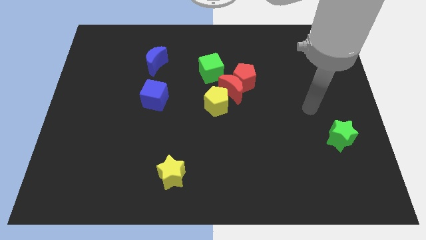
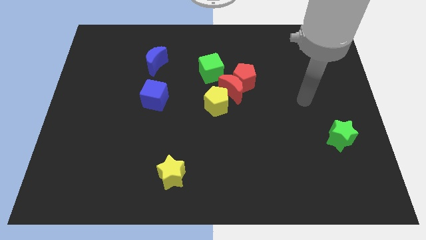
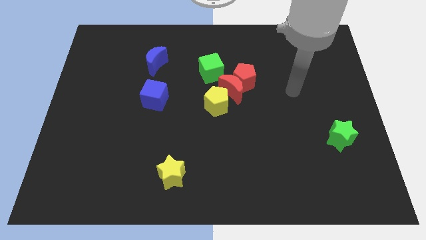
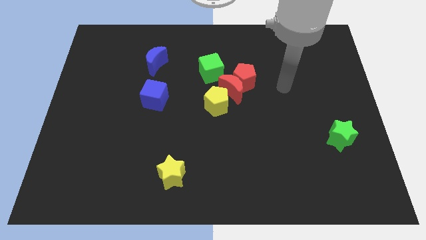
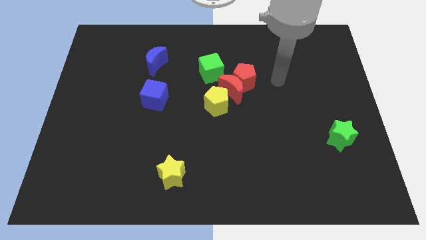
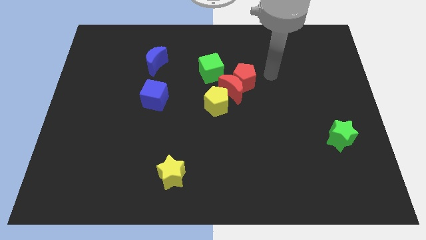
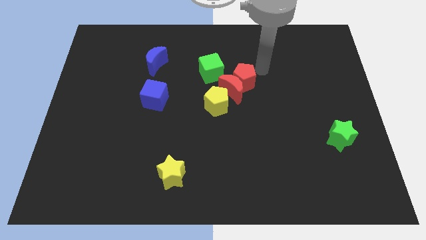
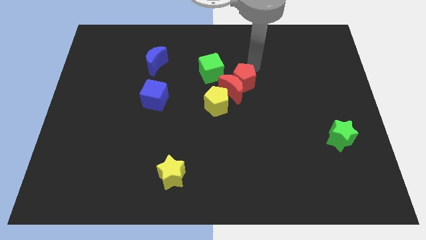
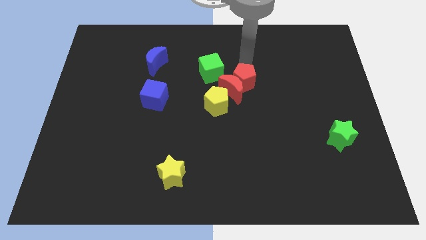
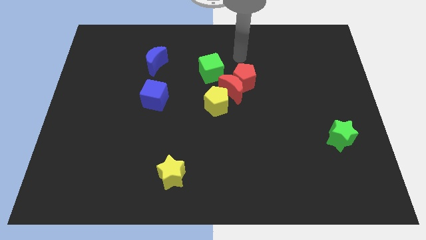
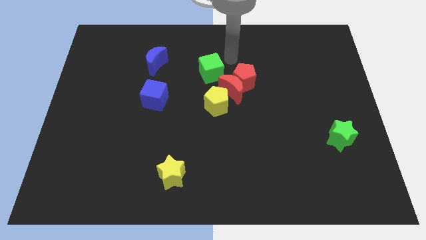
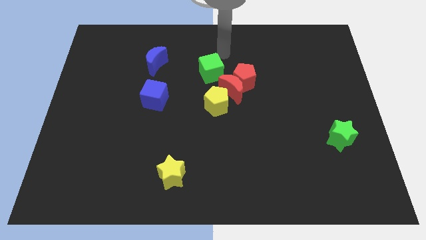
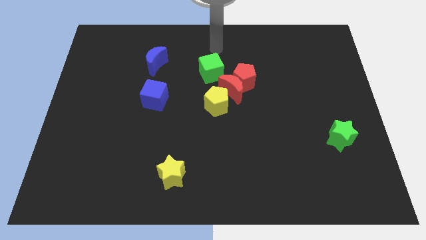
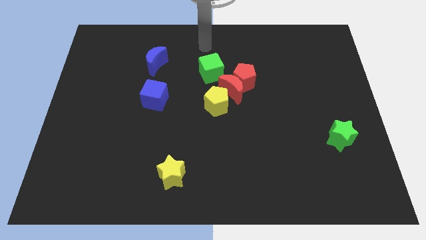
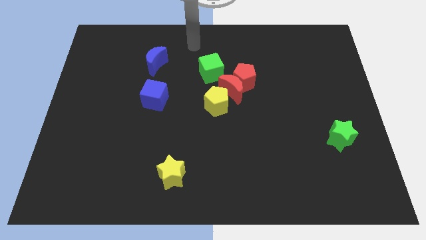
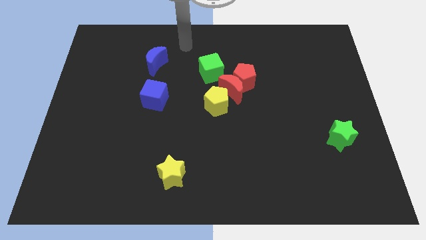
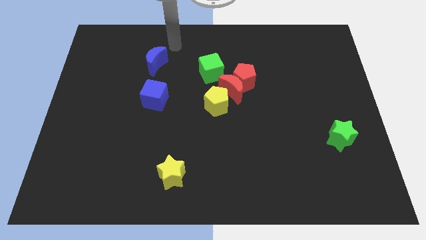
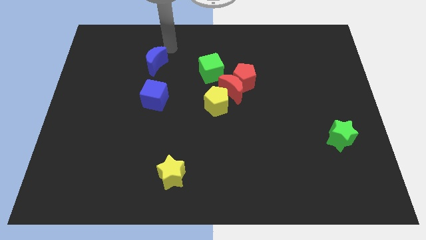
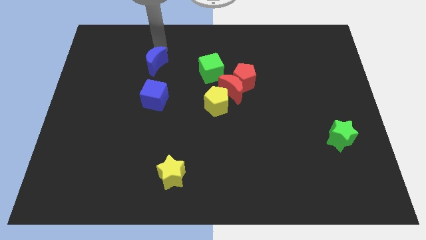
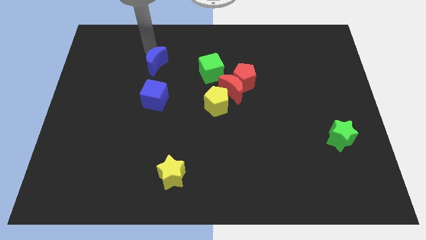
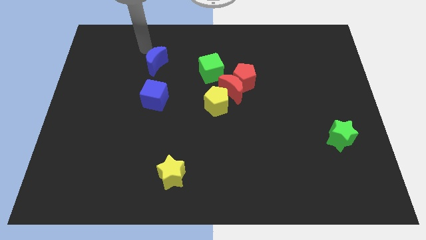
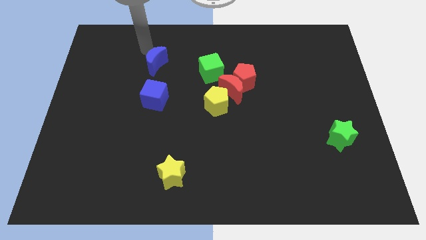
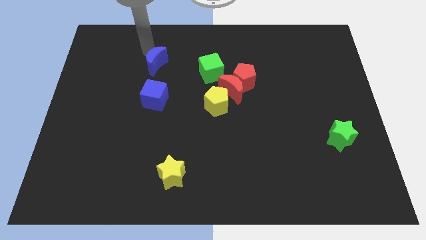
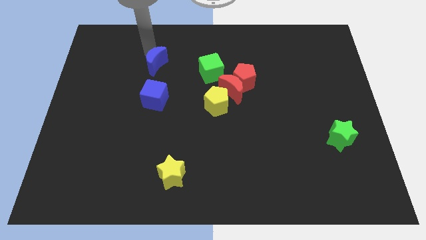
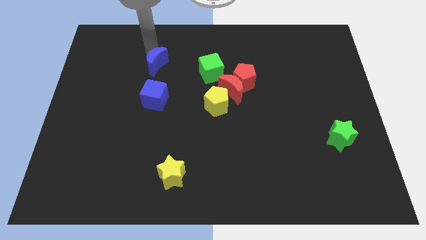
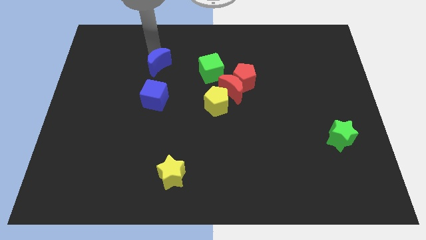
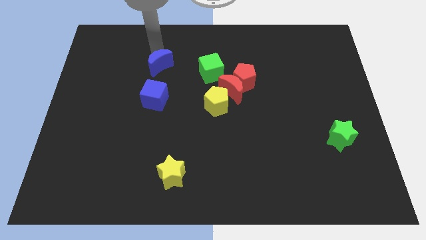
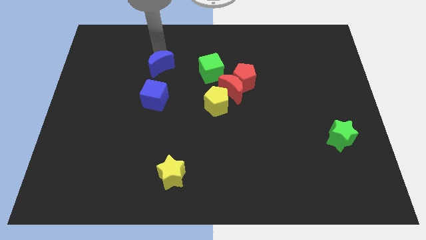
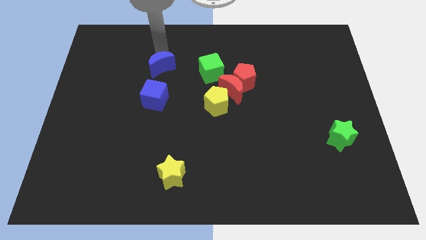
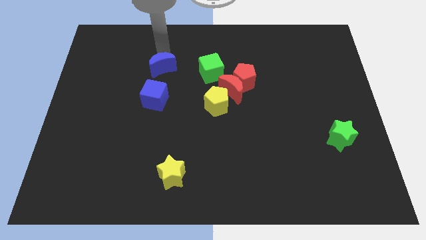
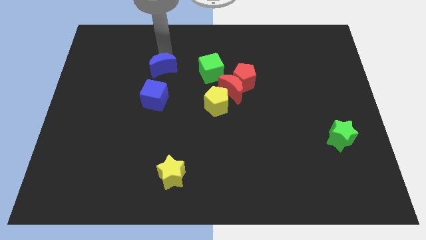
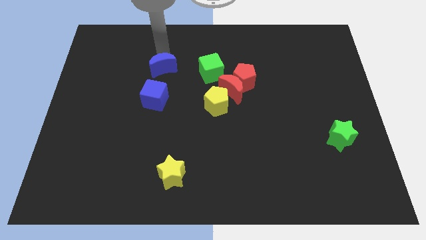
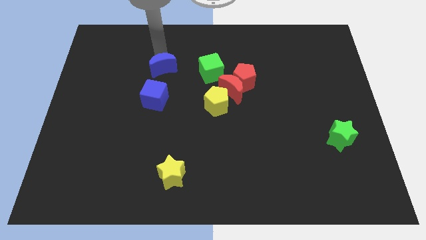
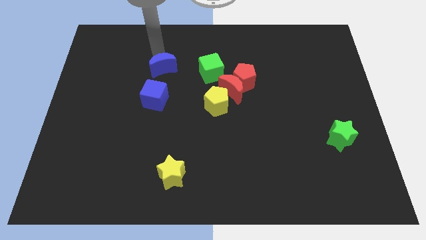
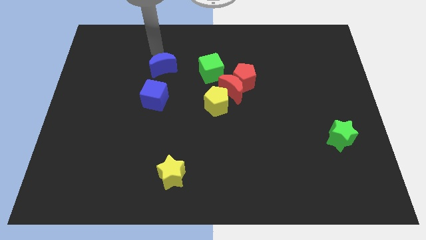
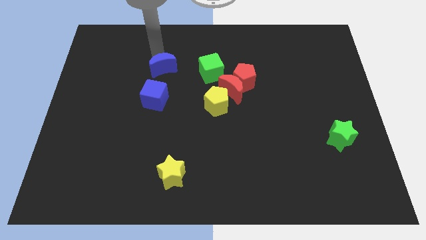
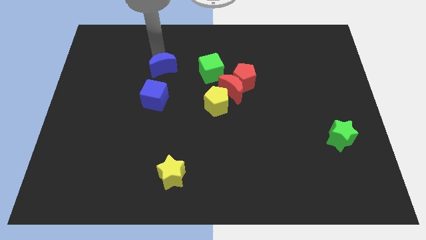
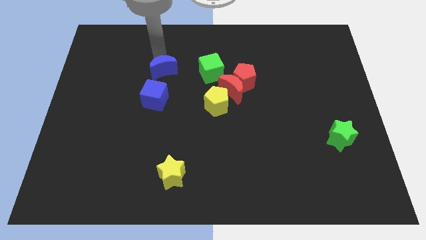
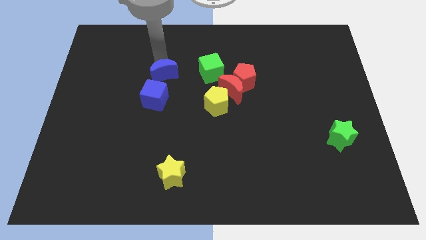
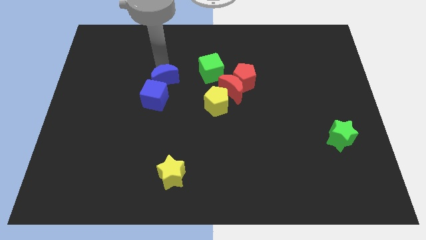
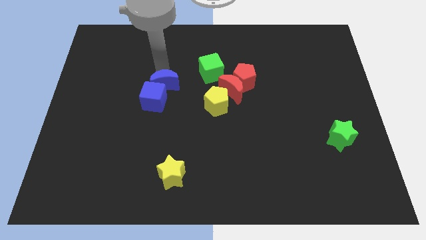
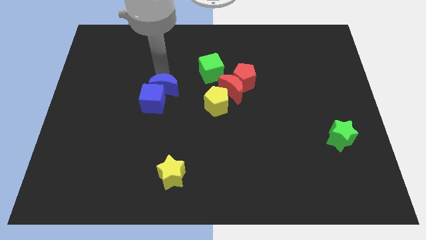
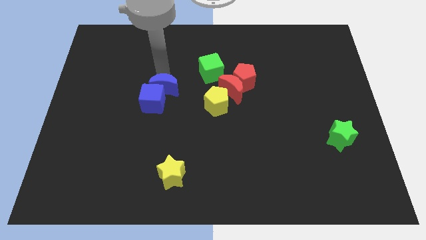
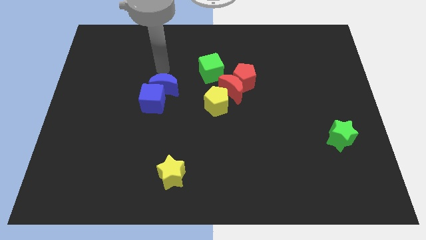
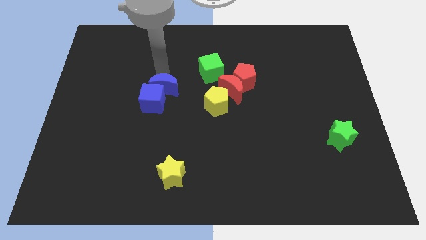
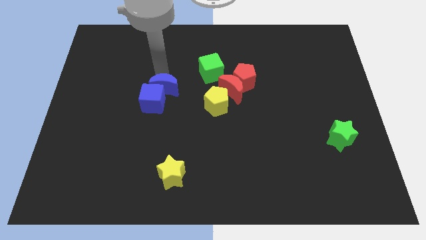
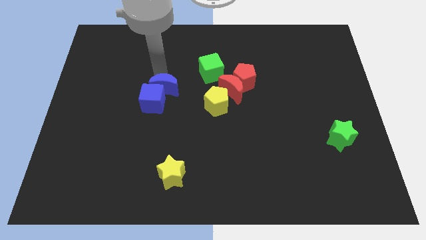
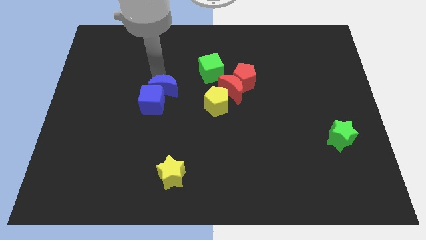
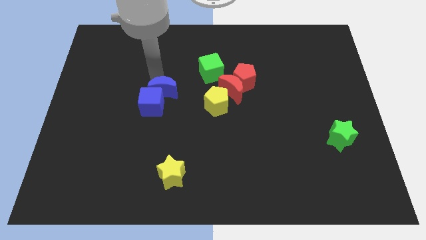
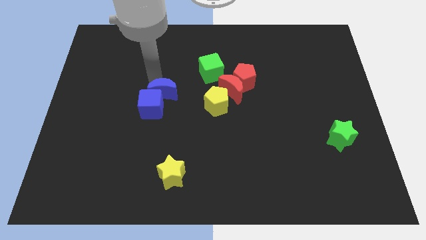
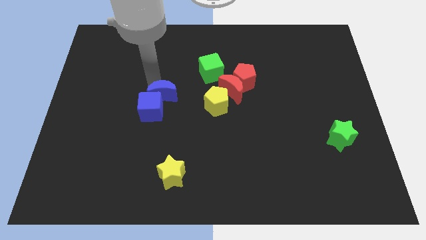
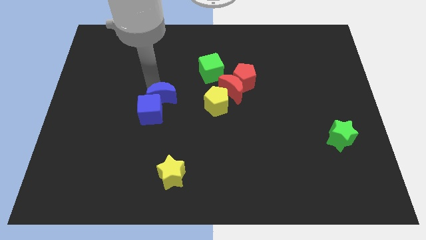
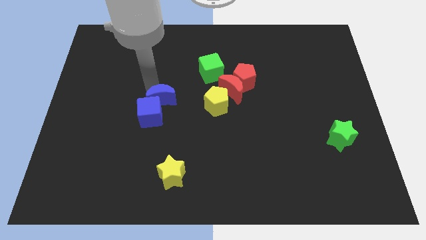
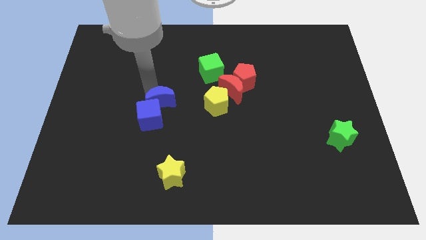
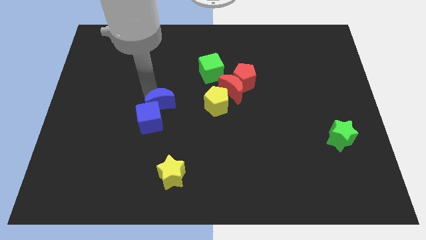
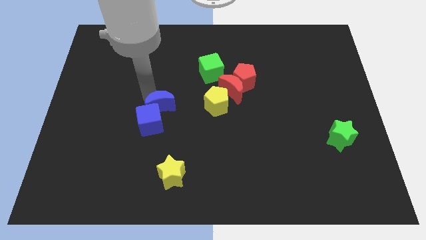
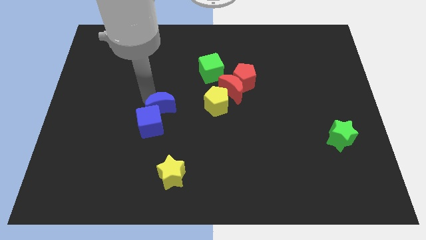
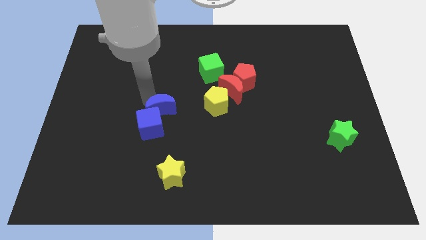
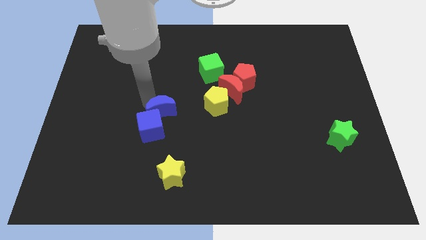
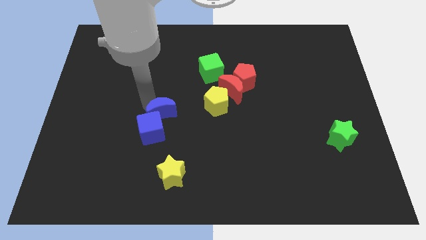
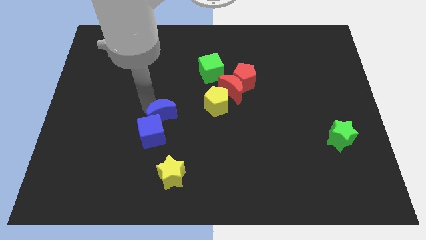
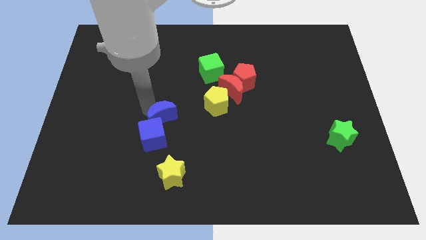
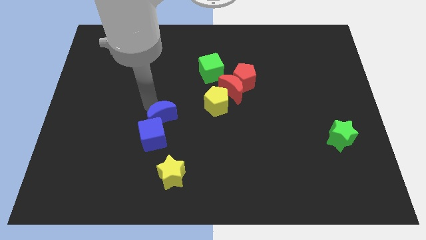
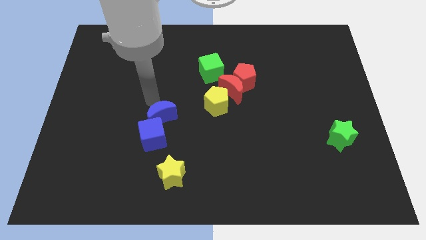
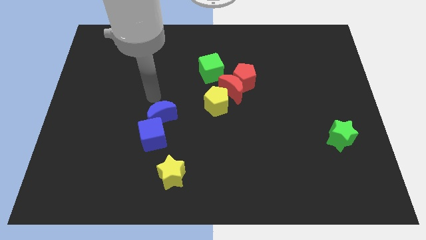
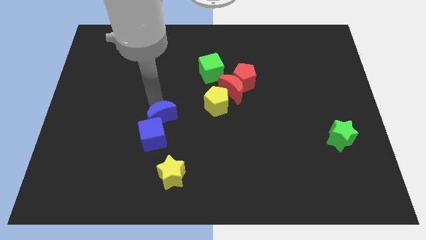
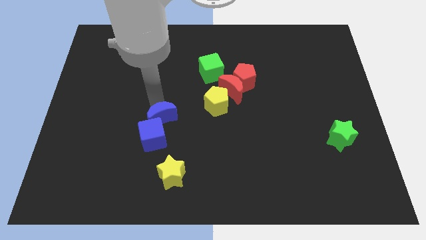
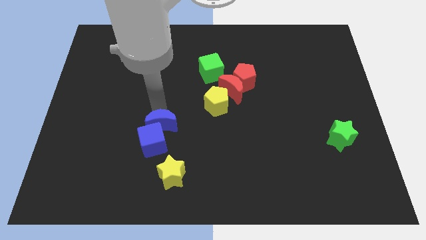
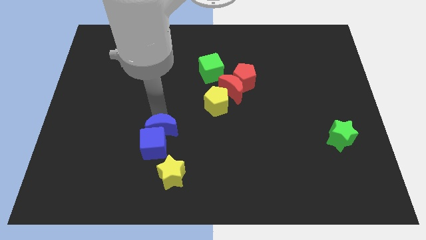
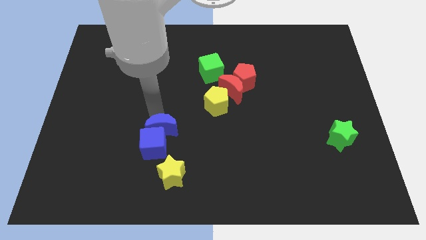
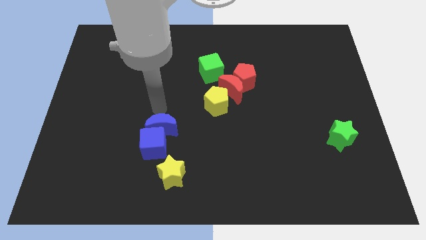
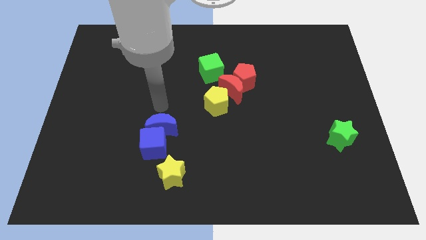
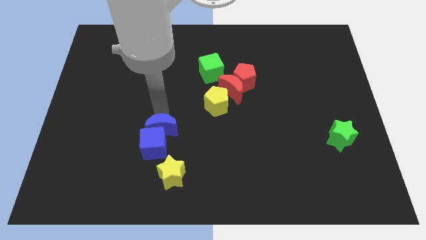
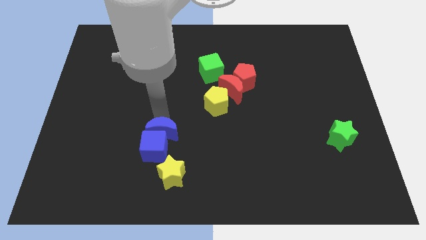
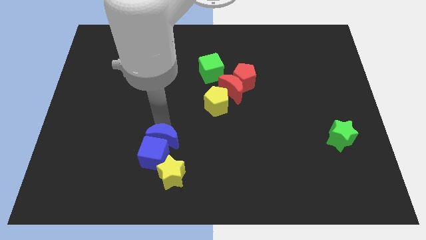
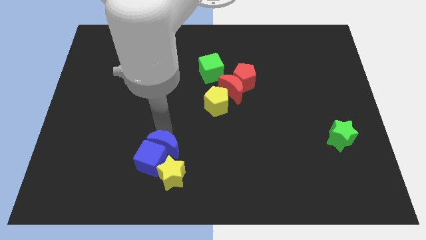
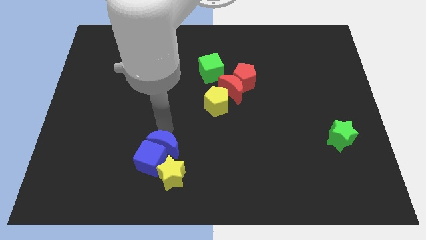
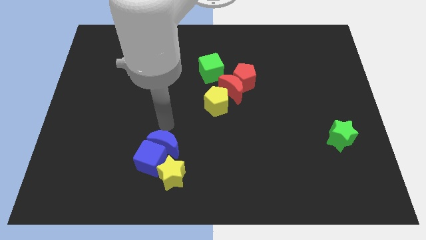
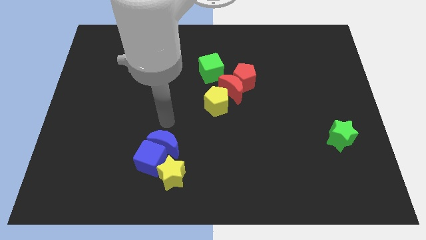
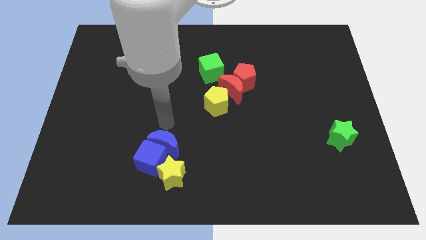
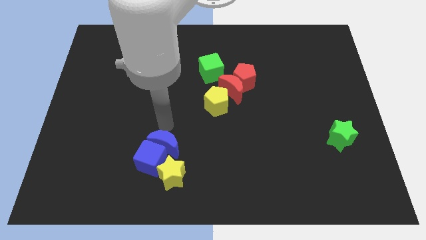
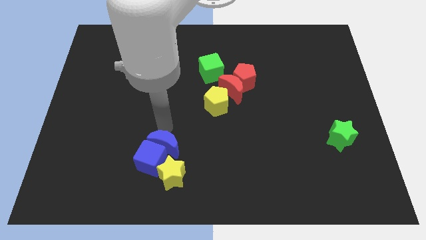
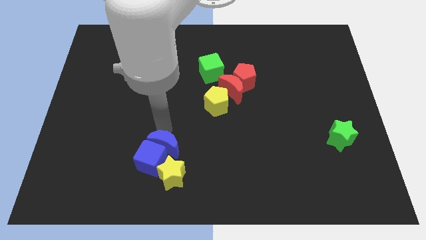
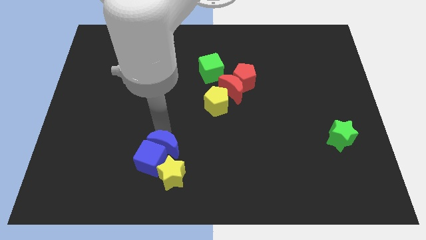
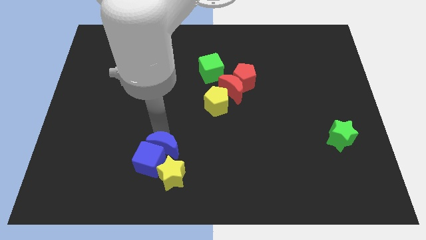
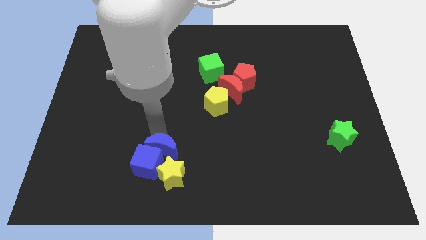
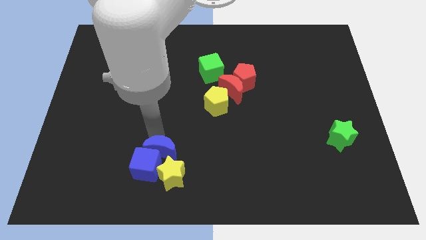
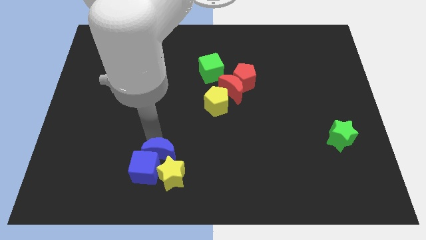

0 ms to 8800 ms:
put the blue moon next to the yellow star
